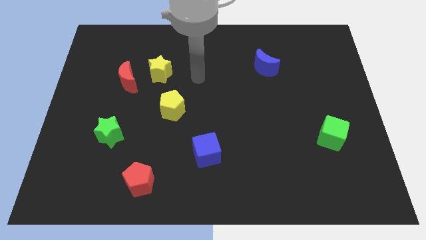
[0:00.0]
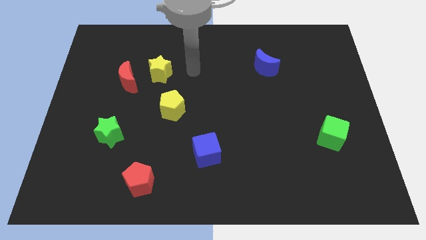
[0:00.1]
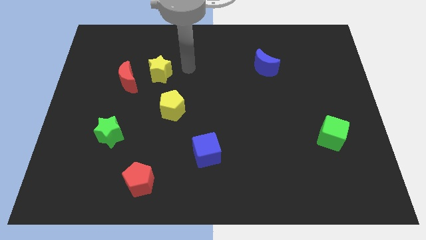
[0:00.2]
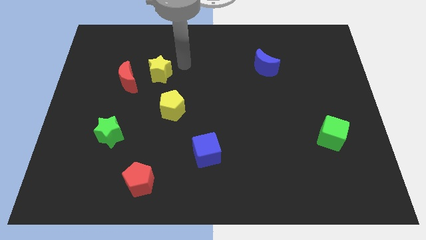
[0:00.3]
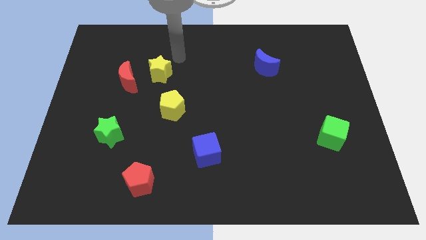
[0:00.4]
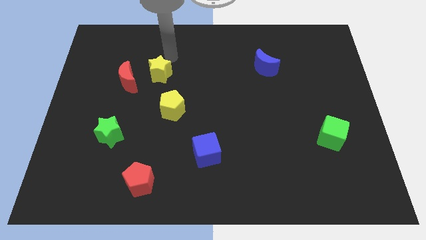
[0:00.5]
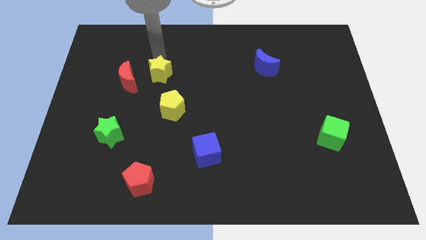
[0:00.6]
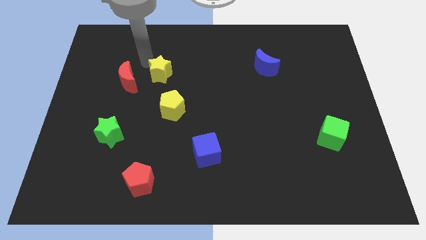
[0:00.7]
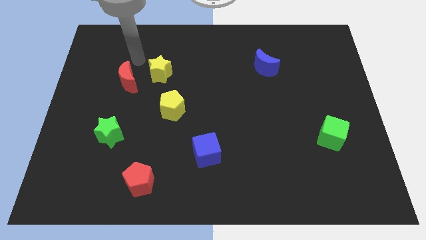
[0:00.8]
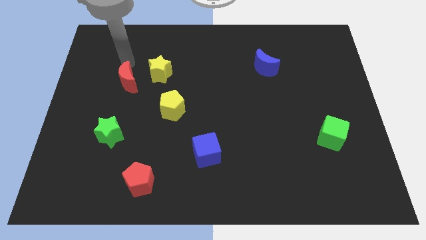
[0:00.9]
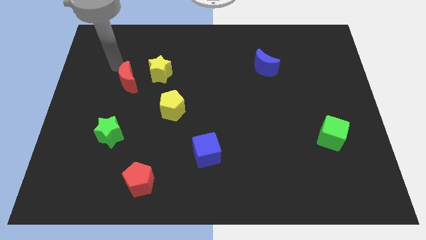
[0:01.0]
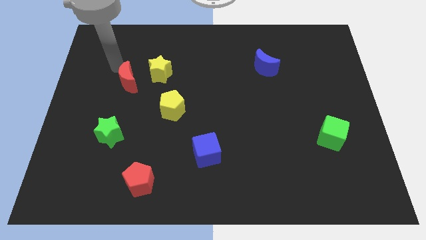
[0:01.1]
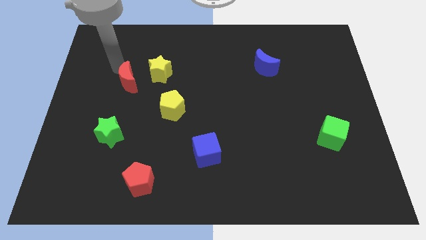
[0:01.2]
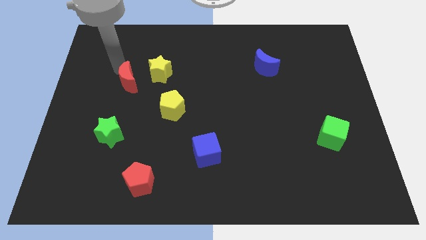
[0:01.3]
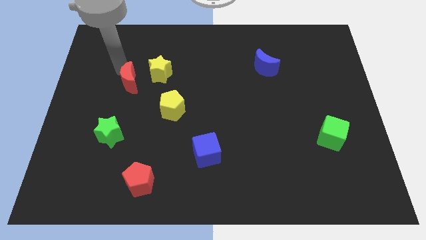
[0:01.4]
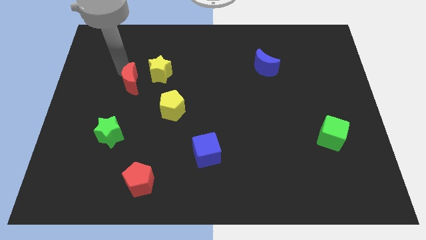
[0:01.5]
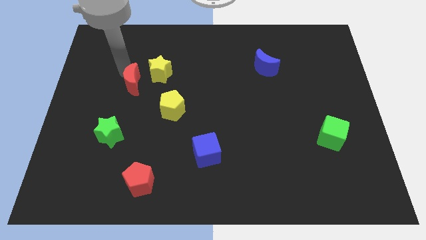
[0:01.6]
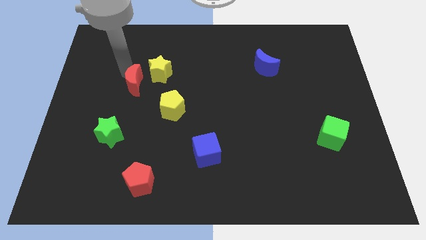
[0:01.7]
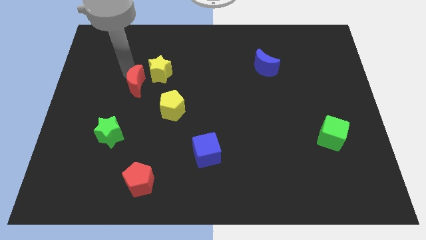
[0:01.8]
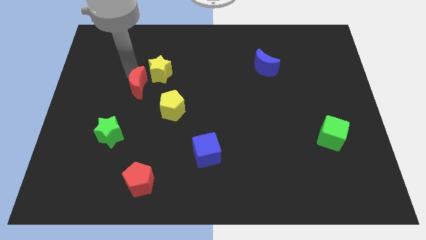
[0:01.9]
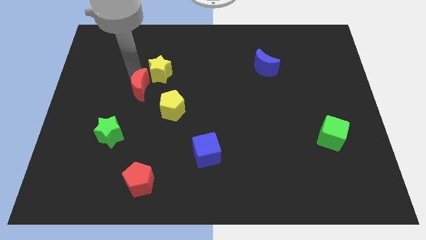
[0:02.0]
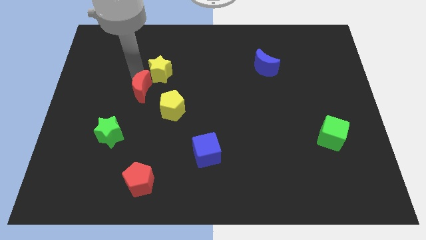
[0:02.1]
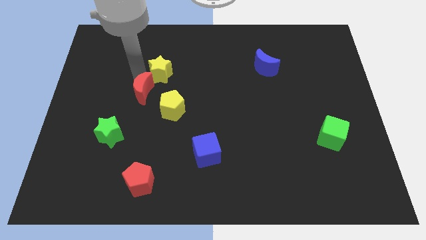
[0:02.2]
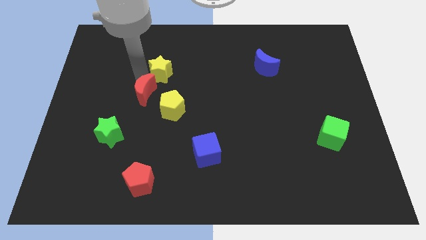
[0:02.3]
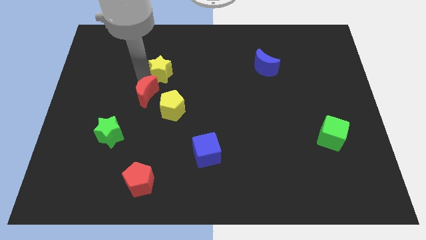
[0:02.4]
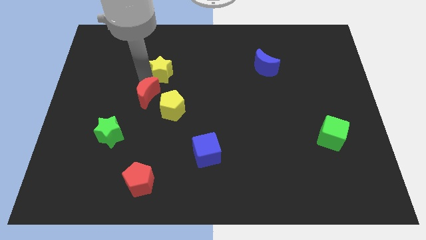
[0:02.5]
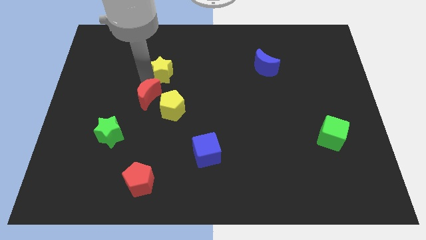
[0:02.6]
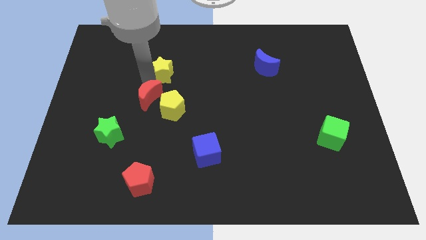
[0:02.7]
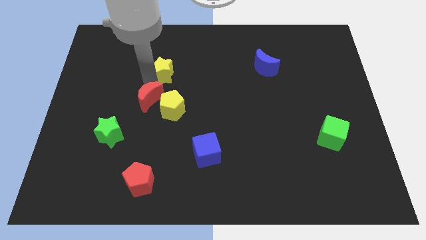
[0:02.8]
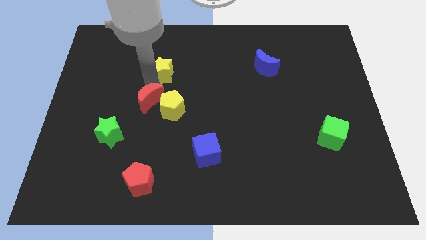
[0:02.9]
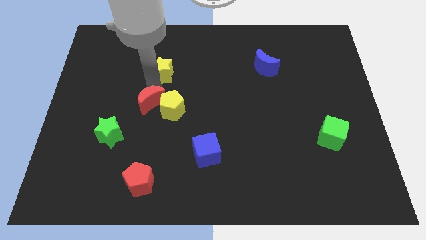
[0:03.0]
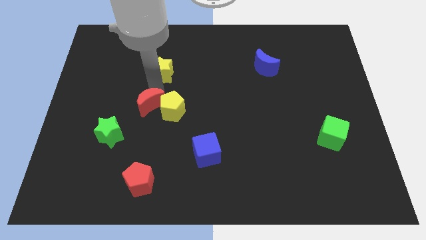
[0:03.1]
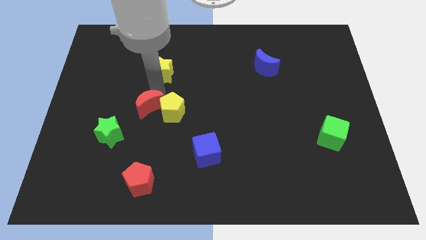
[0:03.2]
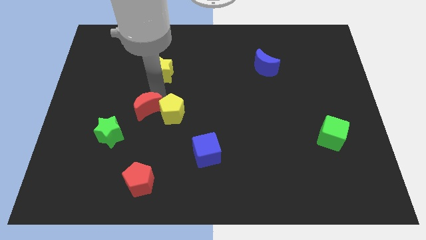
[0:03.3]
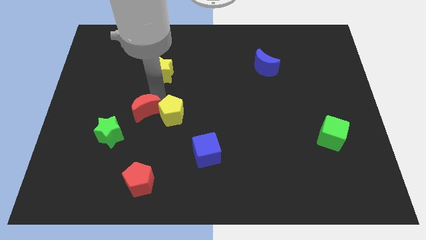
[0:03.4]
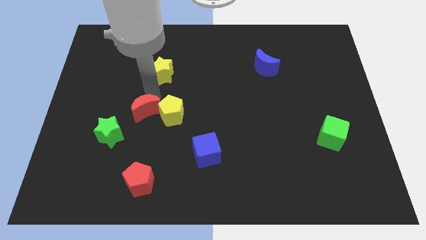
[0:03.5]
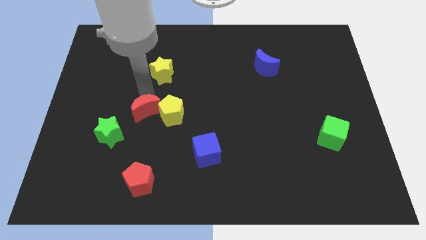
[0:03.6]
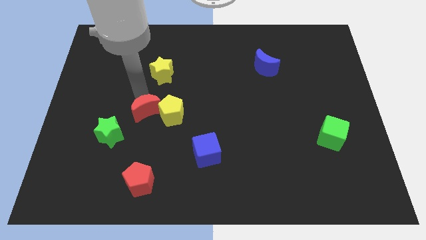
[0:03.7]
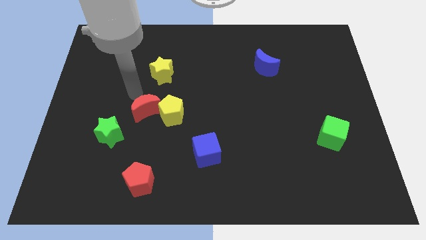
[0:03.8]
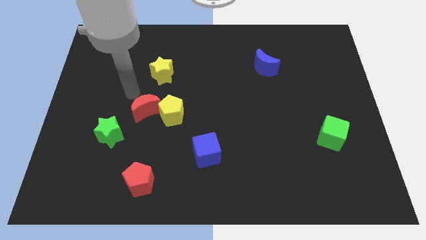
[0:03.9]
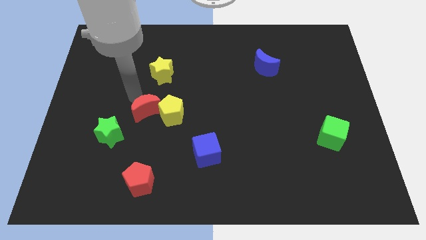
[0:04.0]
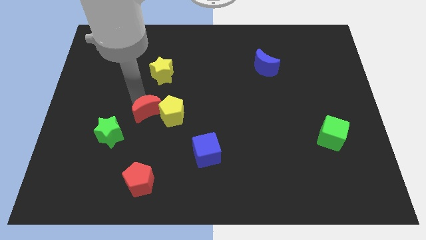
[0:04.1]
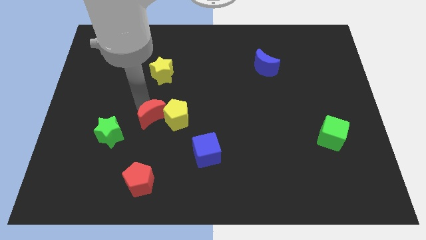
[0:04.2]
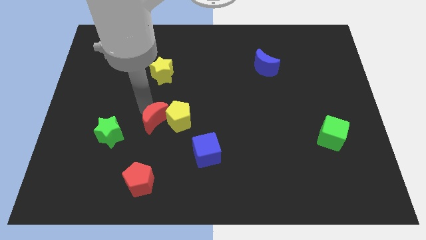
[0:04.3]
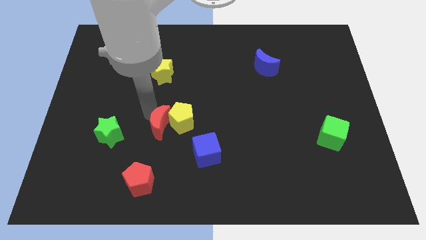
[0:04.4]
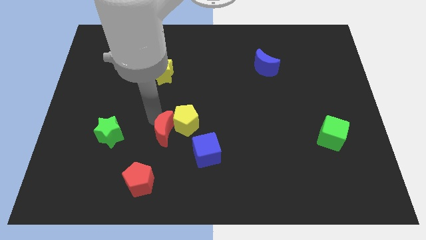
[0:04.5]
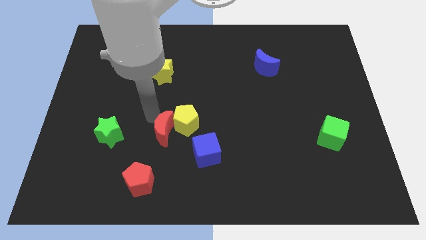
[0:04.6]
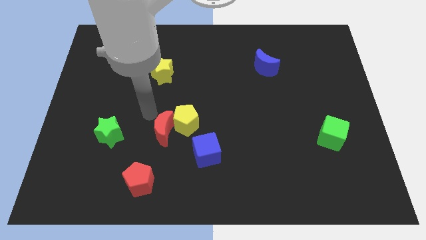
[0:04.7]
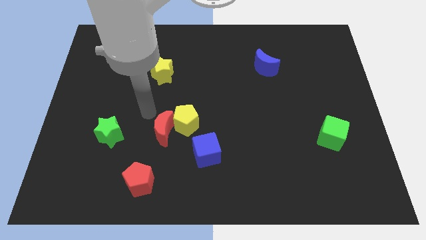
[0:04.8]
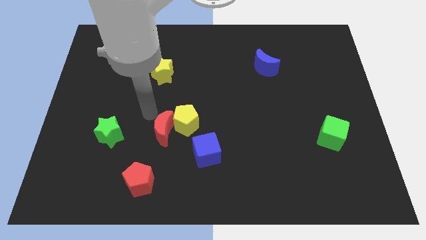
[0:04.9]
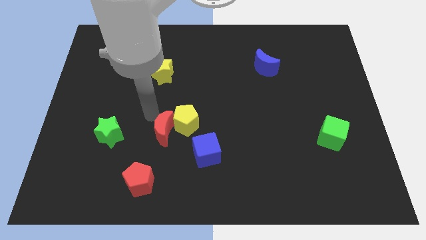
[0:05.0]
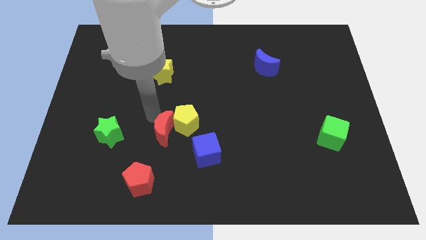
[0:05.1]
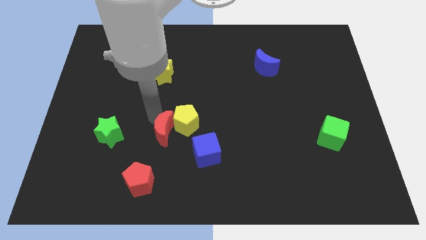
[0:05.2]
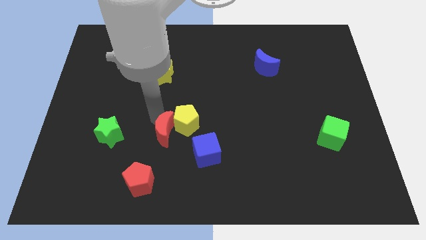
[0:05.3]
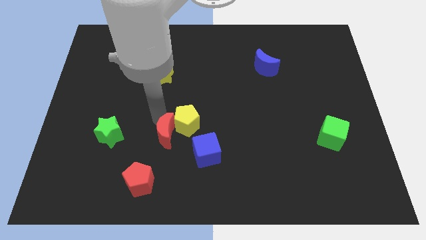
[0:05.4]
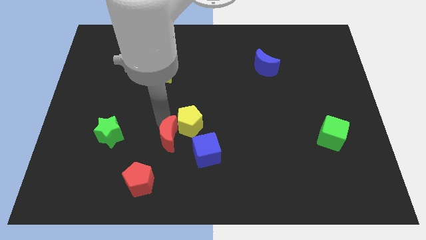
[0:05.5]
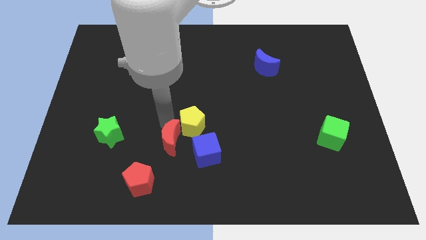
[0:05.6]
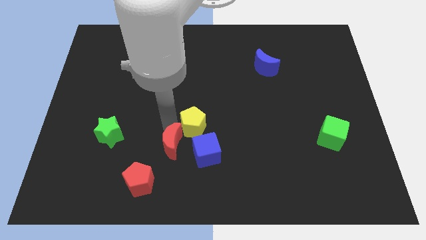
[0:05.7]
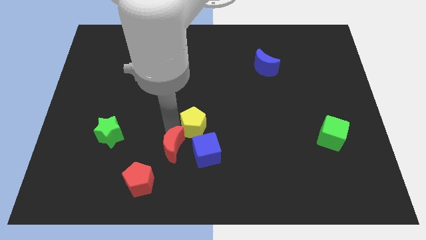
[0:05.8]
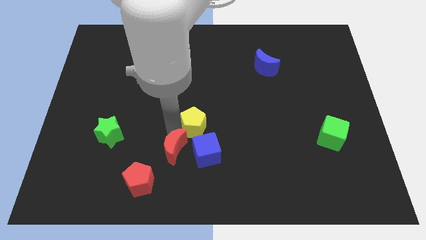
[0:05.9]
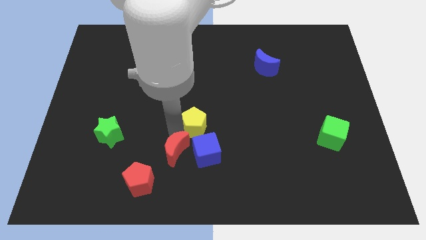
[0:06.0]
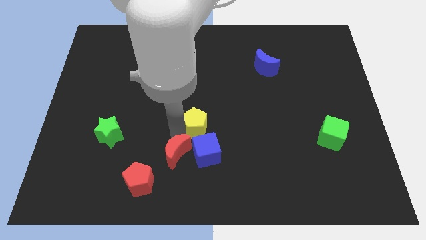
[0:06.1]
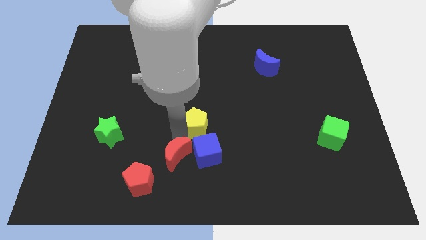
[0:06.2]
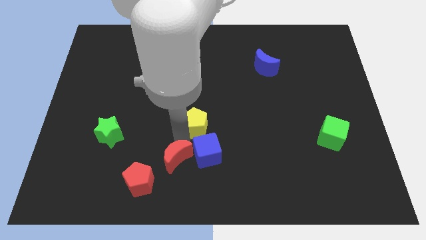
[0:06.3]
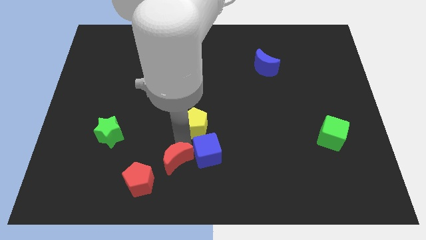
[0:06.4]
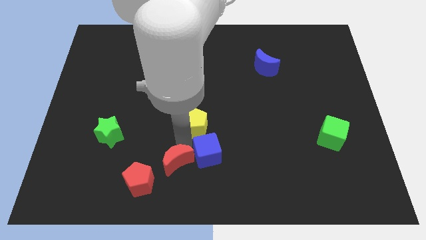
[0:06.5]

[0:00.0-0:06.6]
slide the red moon to the bottom
